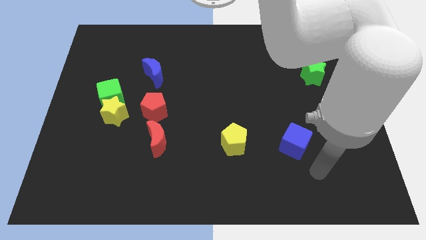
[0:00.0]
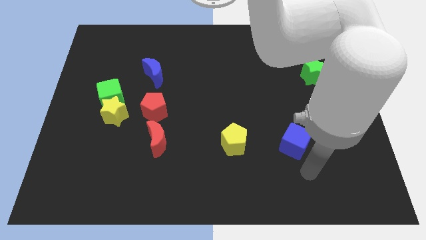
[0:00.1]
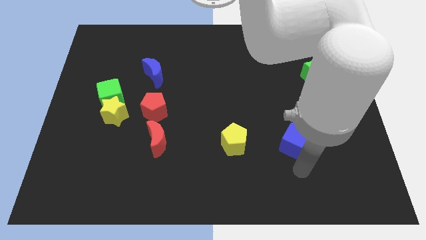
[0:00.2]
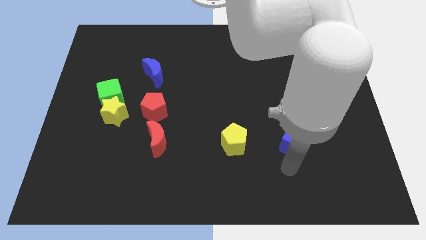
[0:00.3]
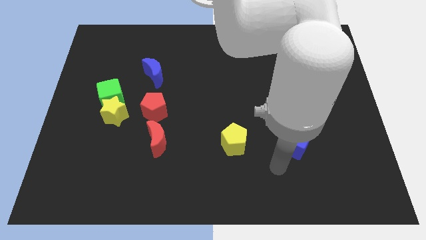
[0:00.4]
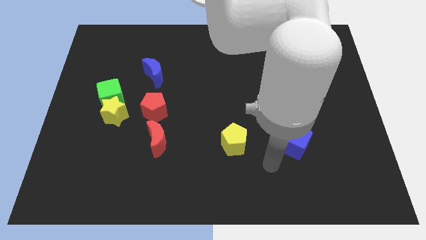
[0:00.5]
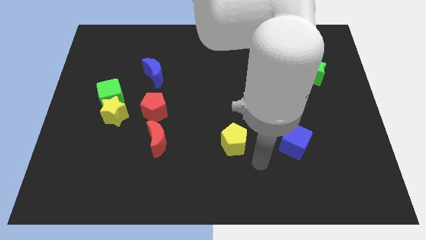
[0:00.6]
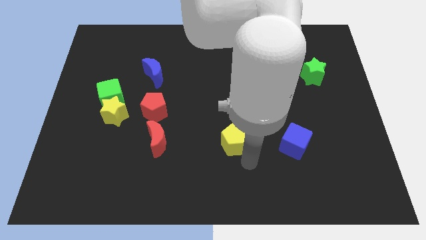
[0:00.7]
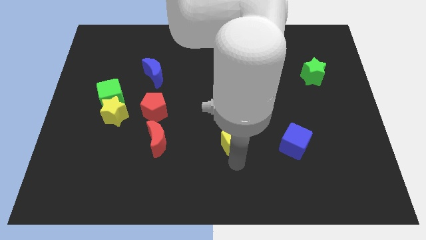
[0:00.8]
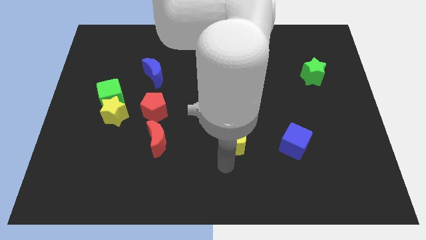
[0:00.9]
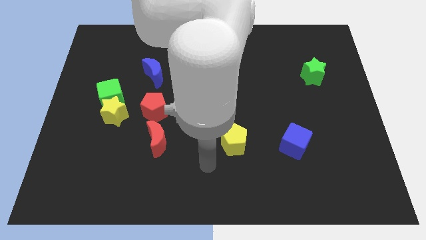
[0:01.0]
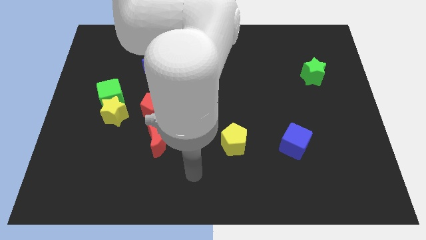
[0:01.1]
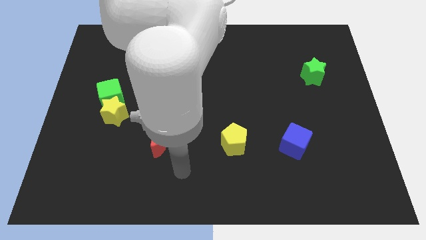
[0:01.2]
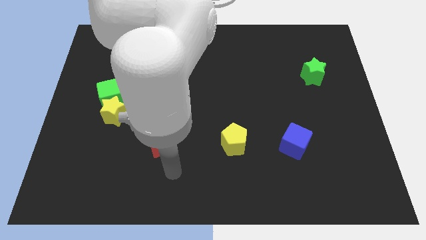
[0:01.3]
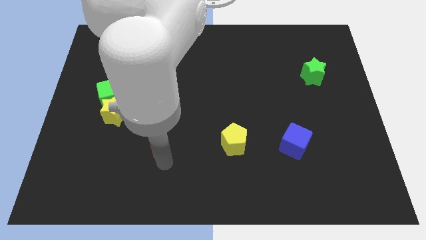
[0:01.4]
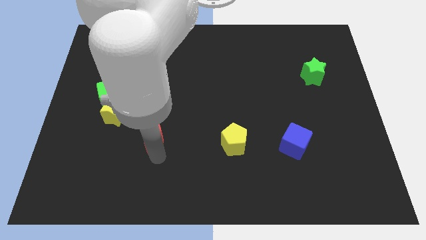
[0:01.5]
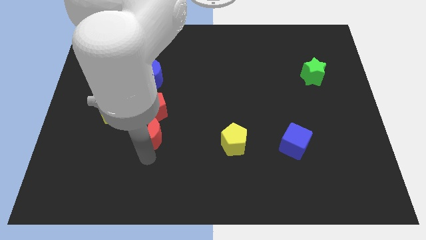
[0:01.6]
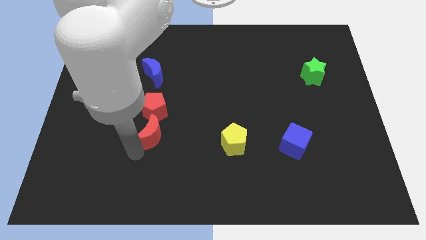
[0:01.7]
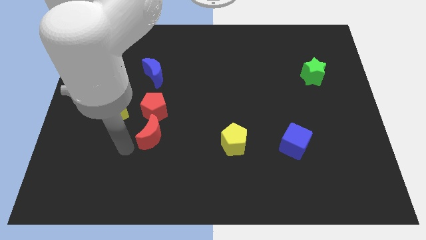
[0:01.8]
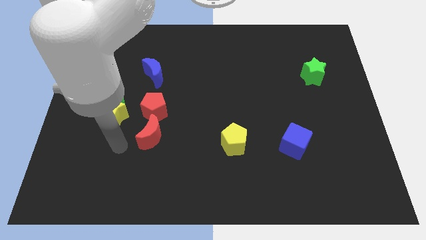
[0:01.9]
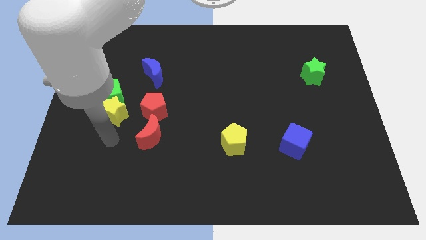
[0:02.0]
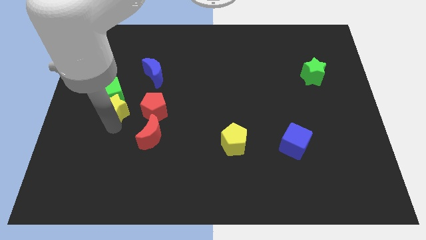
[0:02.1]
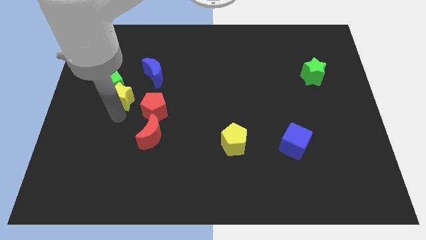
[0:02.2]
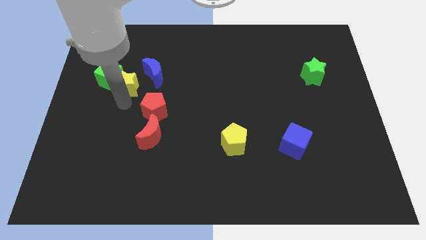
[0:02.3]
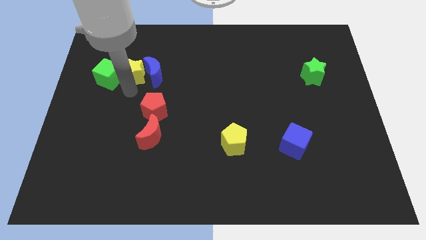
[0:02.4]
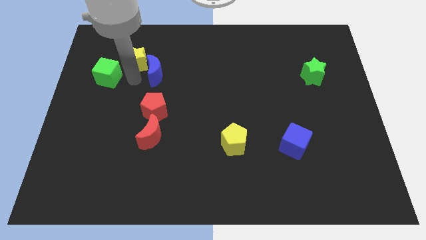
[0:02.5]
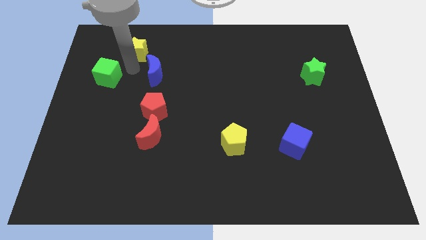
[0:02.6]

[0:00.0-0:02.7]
move the green cube away from the yellow star

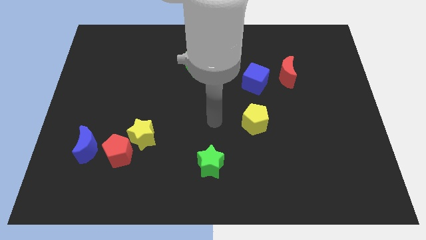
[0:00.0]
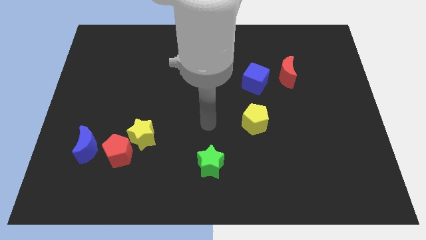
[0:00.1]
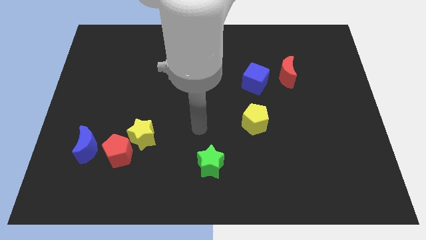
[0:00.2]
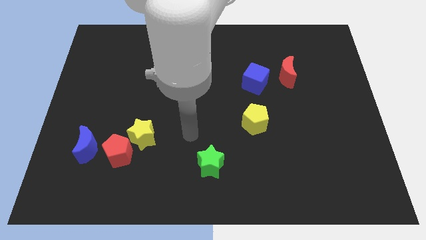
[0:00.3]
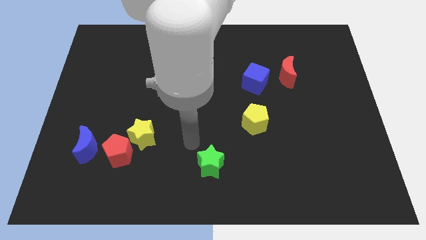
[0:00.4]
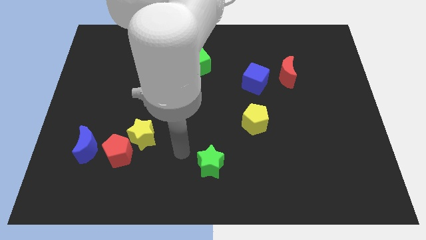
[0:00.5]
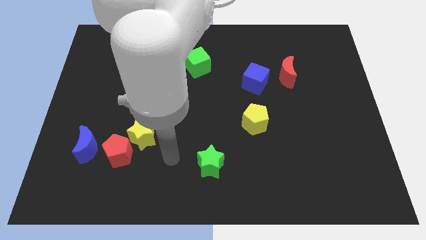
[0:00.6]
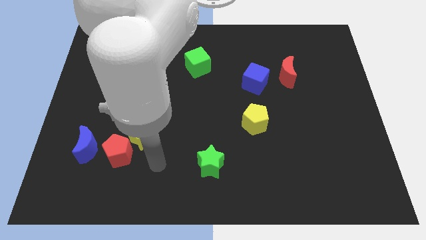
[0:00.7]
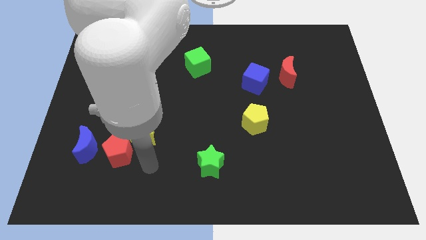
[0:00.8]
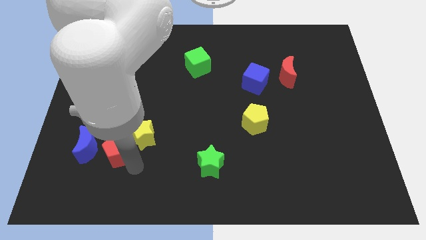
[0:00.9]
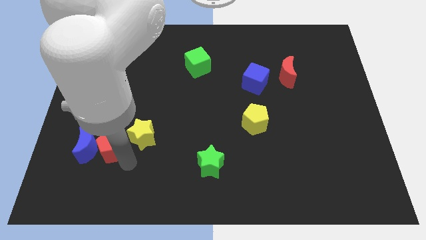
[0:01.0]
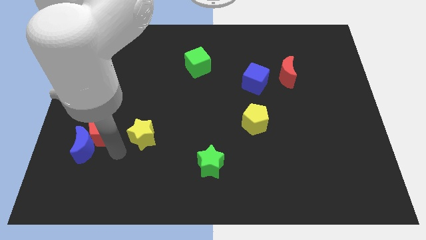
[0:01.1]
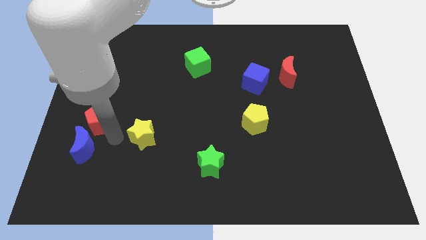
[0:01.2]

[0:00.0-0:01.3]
separate the yellow star from the red pentagon

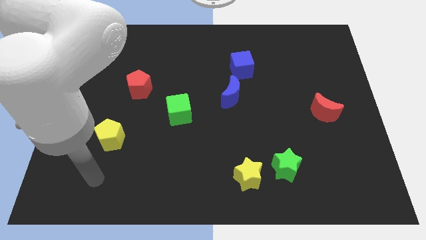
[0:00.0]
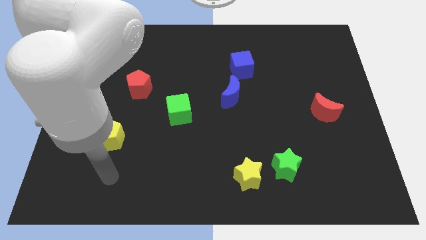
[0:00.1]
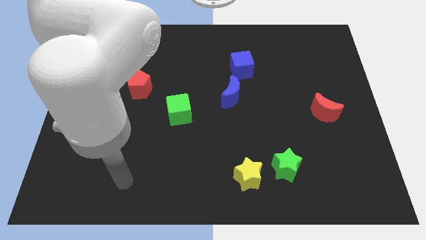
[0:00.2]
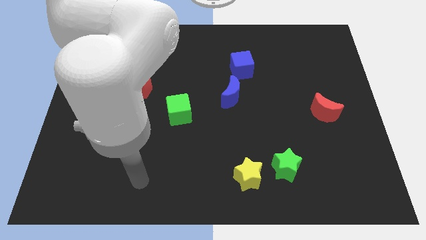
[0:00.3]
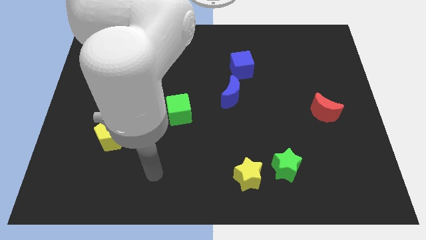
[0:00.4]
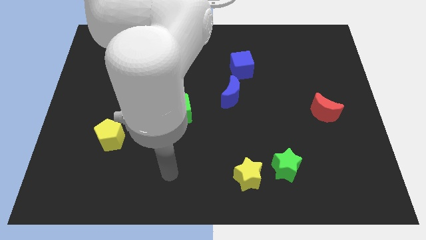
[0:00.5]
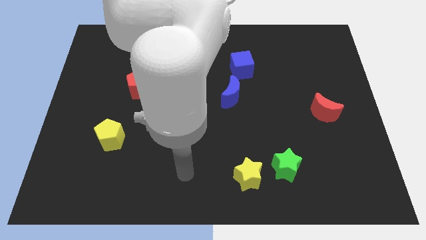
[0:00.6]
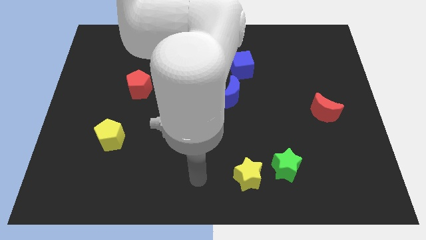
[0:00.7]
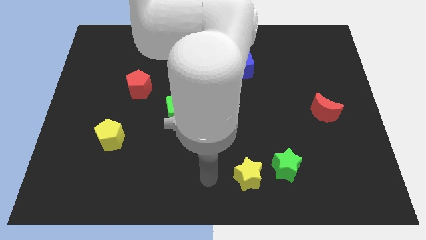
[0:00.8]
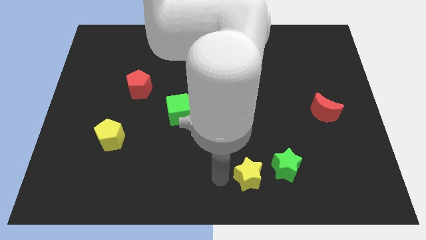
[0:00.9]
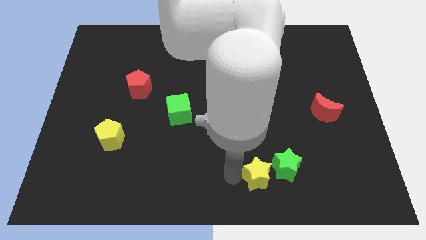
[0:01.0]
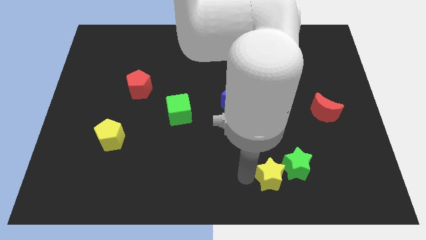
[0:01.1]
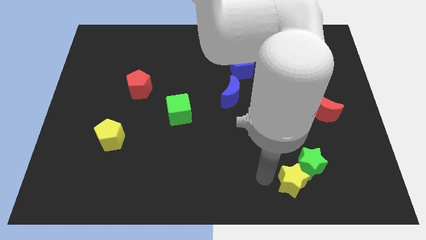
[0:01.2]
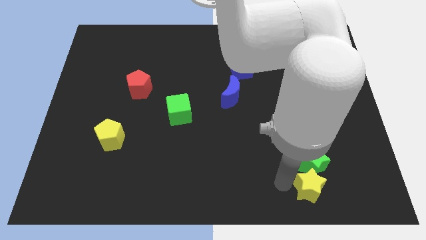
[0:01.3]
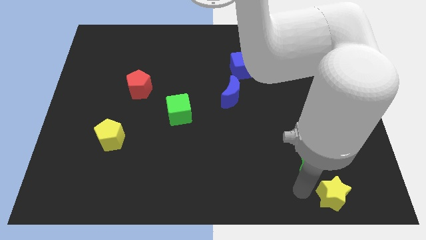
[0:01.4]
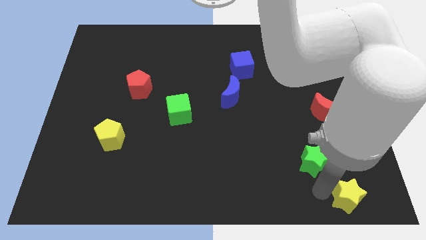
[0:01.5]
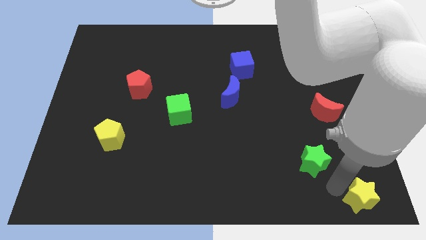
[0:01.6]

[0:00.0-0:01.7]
pull the green star apart from the yellow star

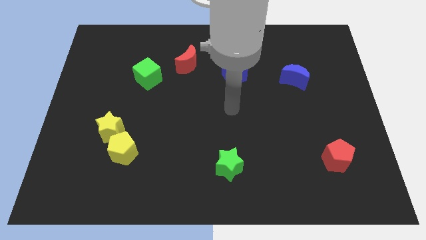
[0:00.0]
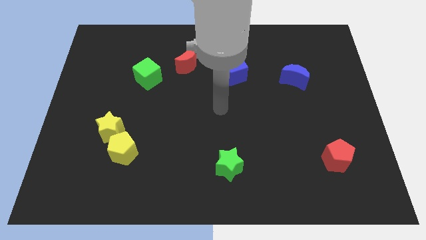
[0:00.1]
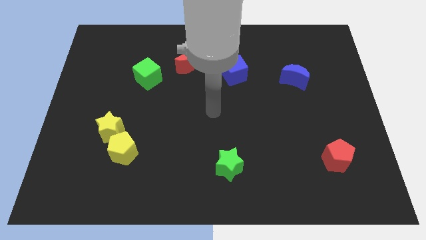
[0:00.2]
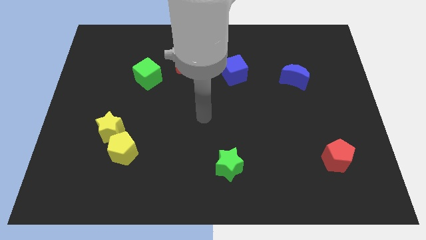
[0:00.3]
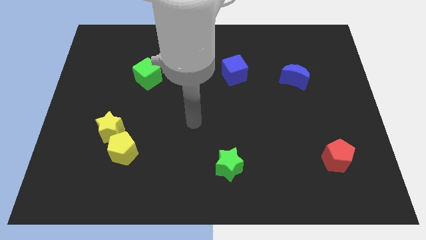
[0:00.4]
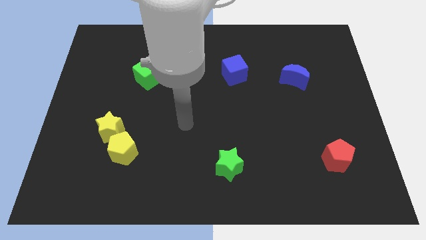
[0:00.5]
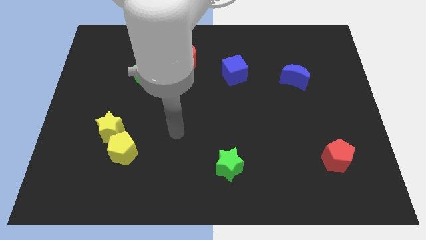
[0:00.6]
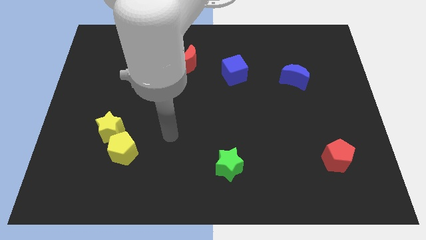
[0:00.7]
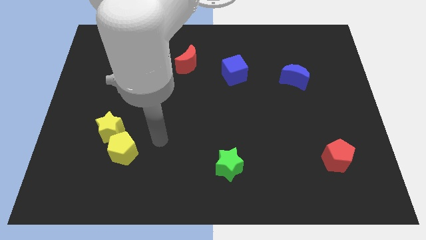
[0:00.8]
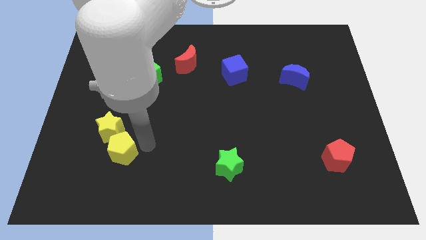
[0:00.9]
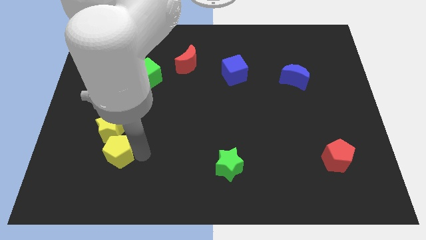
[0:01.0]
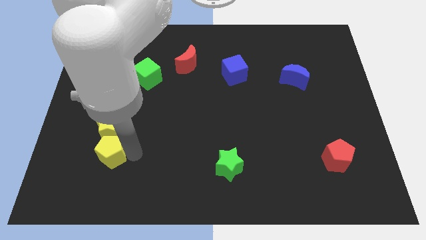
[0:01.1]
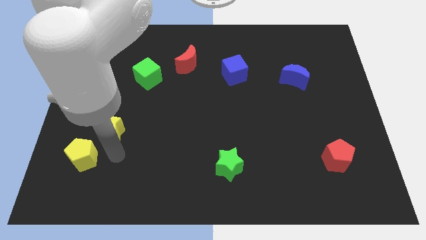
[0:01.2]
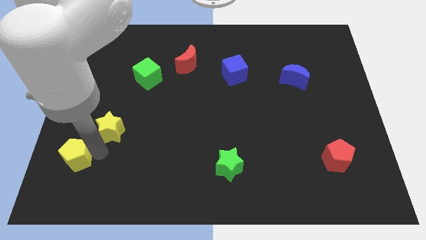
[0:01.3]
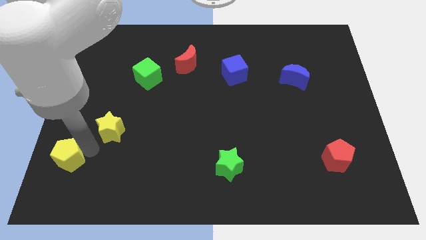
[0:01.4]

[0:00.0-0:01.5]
separate the yellow star from the yellow pentagon

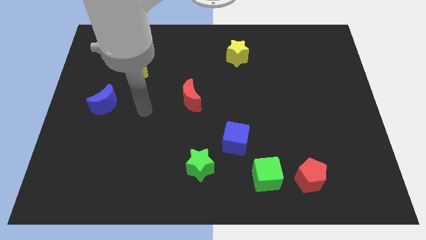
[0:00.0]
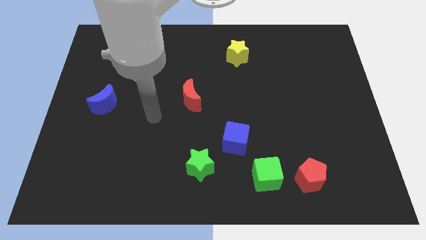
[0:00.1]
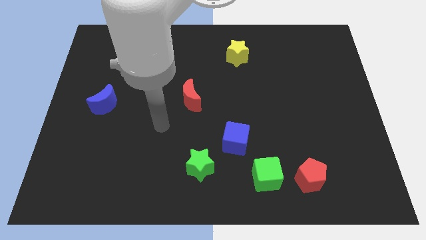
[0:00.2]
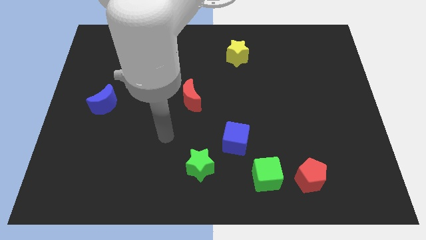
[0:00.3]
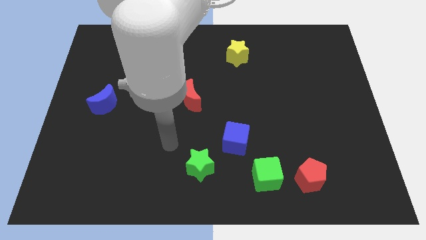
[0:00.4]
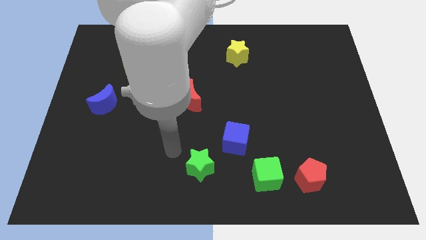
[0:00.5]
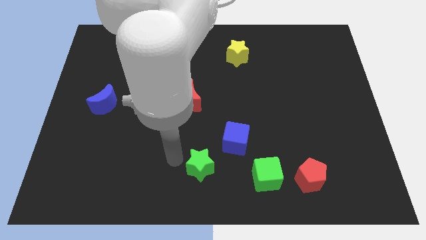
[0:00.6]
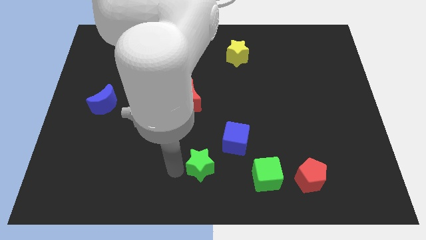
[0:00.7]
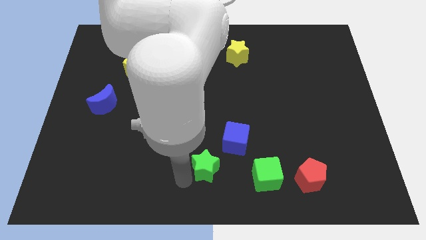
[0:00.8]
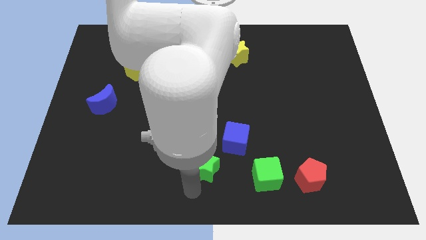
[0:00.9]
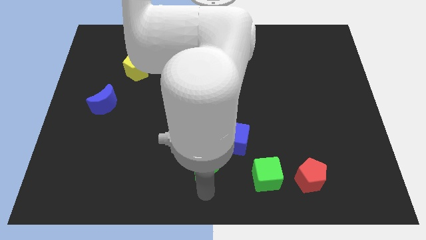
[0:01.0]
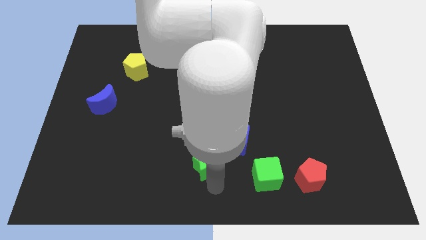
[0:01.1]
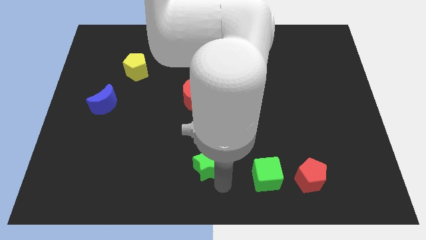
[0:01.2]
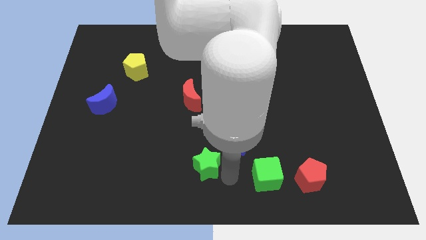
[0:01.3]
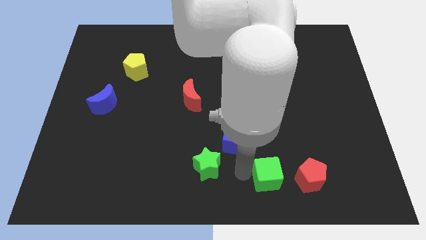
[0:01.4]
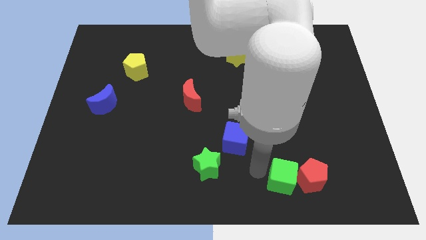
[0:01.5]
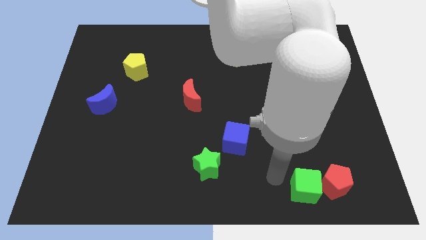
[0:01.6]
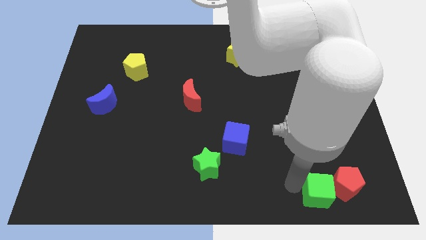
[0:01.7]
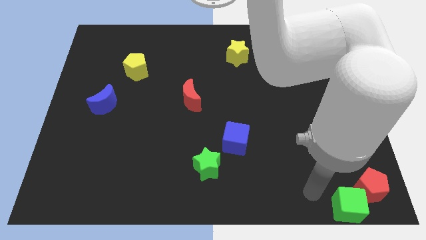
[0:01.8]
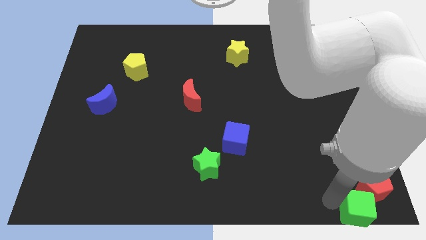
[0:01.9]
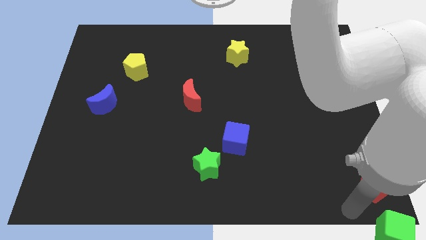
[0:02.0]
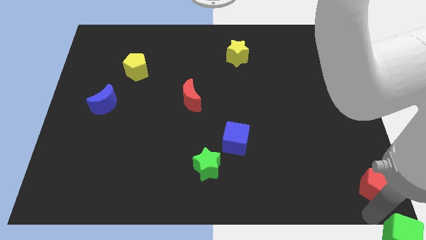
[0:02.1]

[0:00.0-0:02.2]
pull the red pentagon apart from the green cube

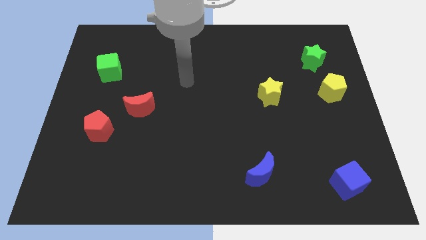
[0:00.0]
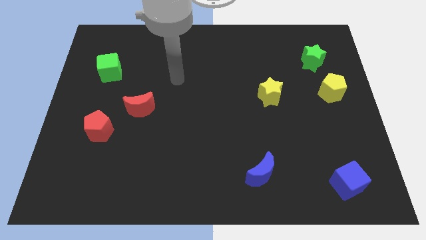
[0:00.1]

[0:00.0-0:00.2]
pull the red moon apart from the red pentagon
